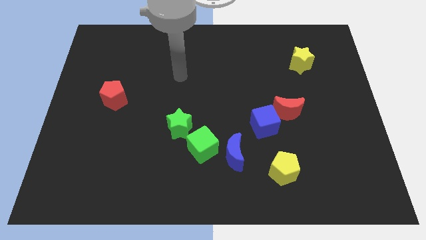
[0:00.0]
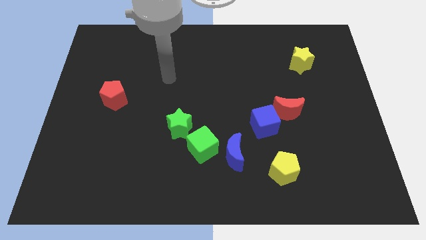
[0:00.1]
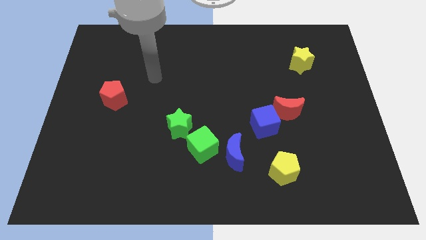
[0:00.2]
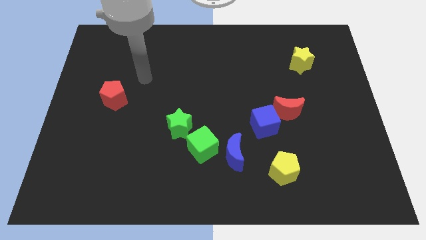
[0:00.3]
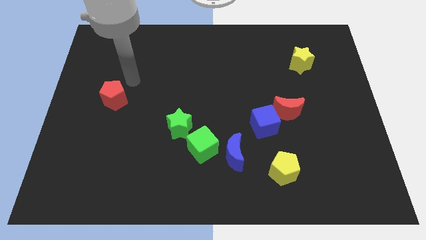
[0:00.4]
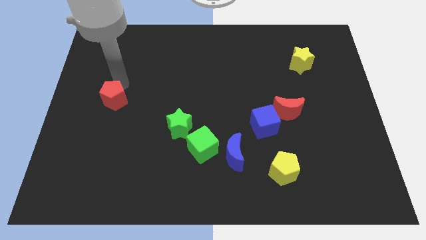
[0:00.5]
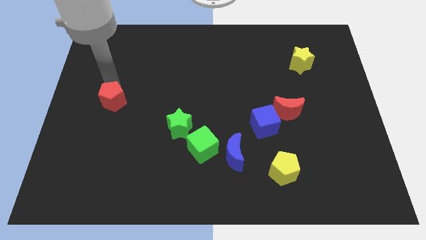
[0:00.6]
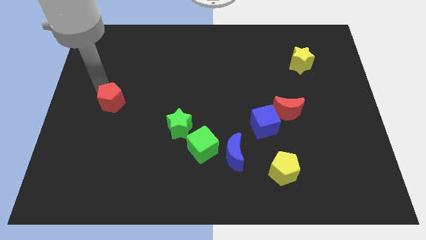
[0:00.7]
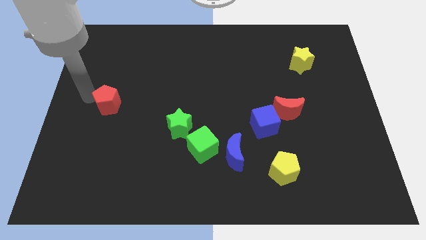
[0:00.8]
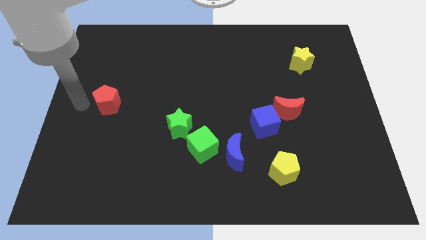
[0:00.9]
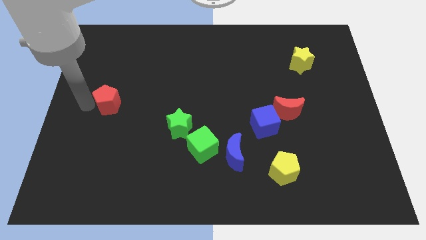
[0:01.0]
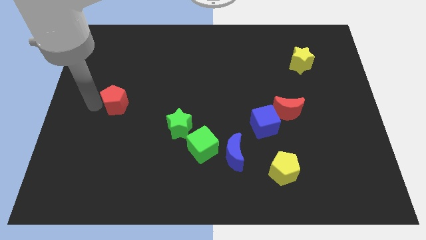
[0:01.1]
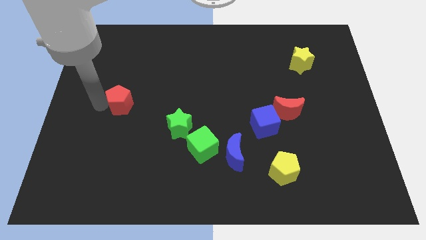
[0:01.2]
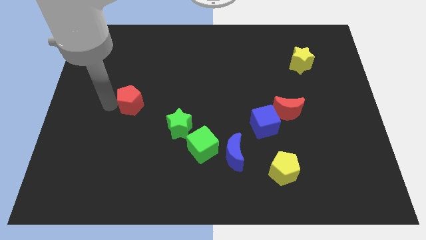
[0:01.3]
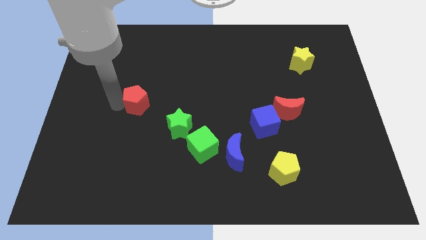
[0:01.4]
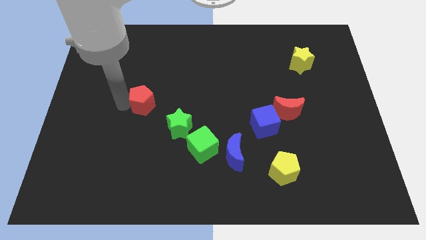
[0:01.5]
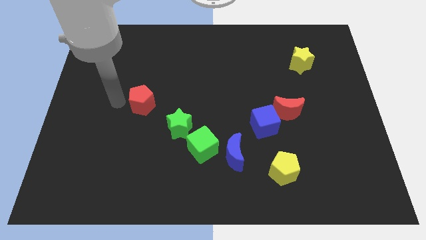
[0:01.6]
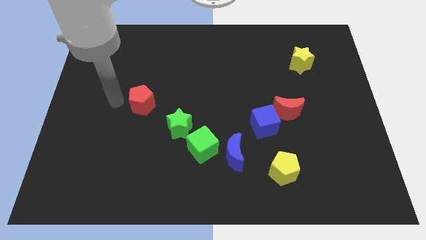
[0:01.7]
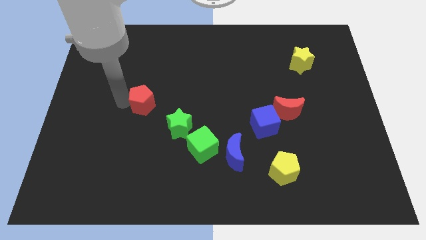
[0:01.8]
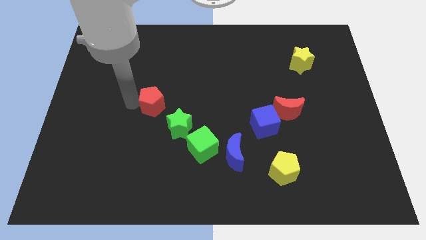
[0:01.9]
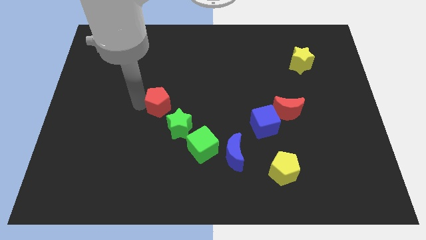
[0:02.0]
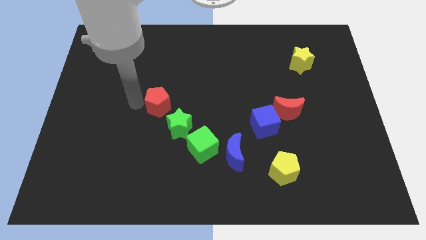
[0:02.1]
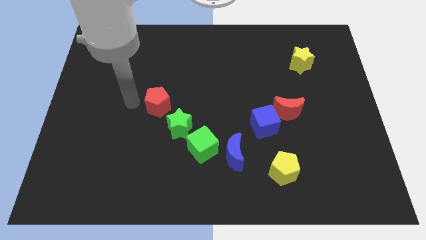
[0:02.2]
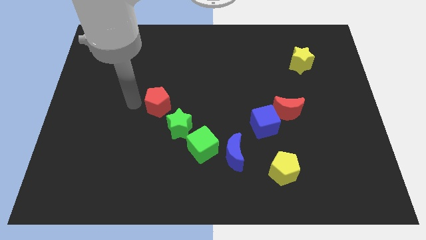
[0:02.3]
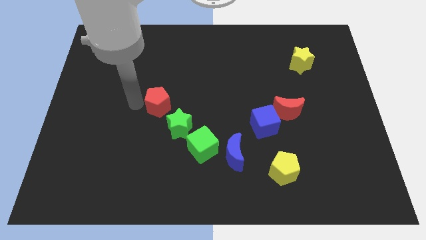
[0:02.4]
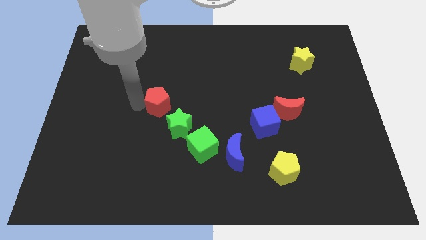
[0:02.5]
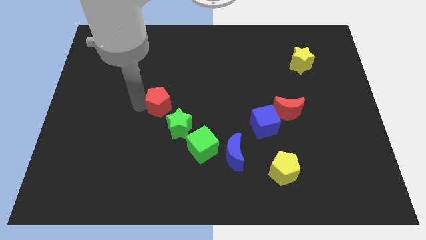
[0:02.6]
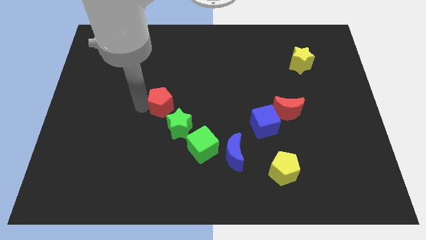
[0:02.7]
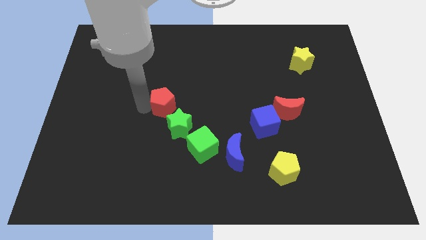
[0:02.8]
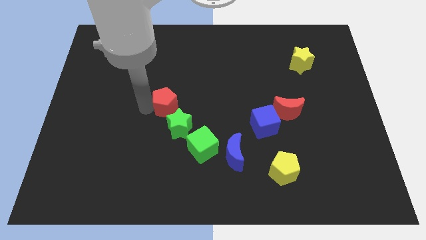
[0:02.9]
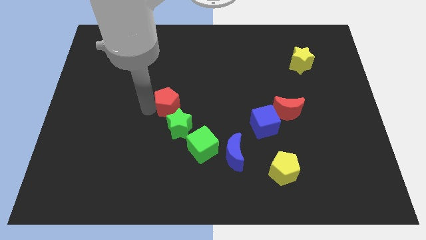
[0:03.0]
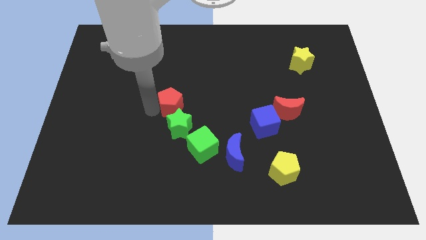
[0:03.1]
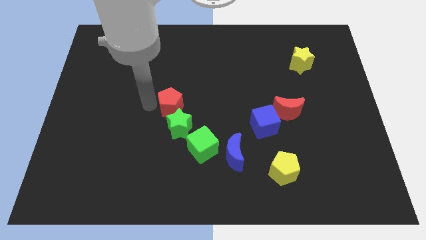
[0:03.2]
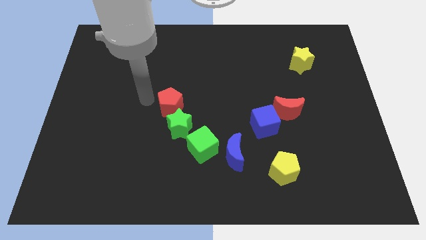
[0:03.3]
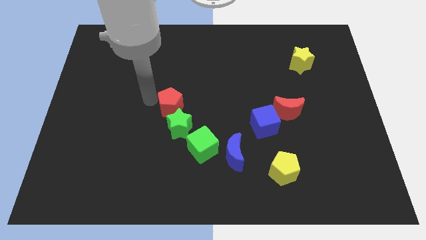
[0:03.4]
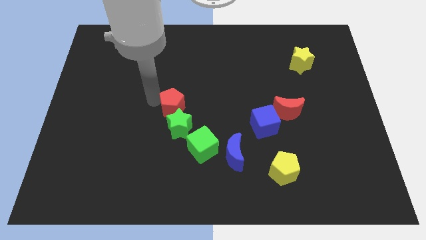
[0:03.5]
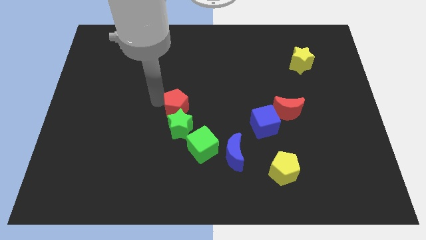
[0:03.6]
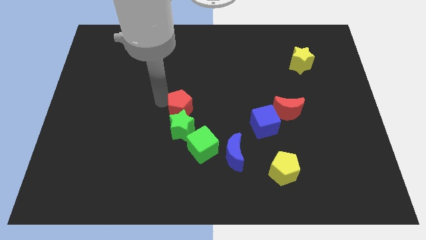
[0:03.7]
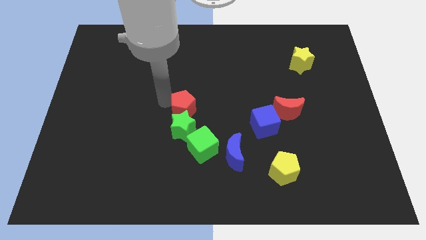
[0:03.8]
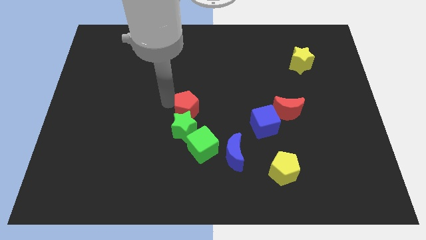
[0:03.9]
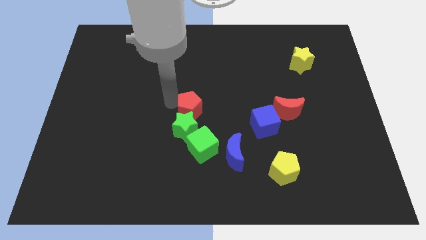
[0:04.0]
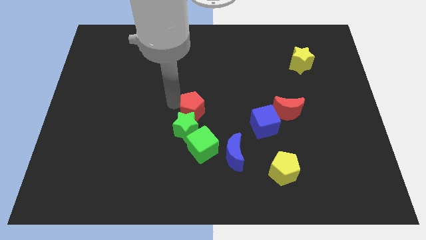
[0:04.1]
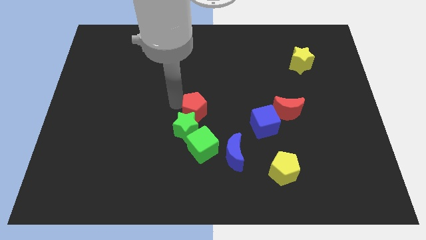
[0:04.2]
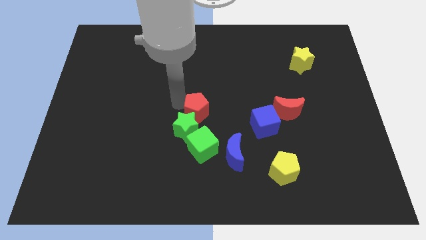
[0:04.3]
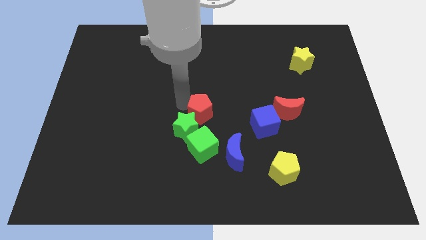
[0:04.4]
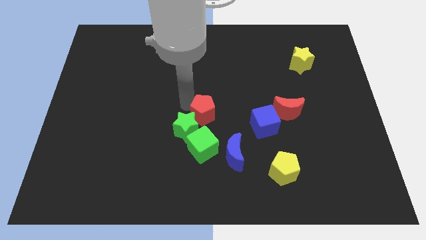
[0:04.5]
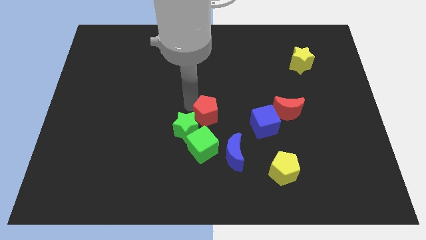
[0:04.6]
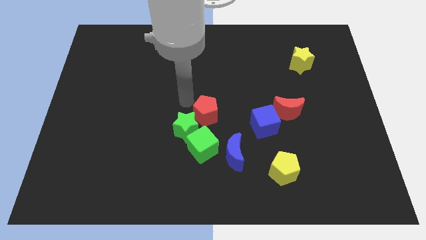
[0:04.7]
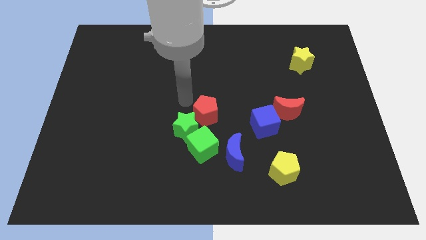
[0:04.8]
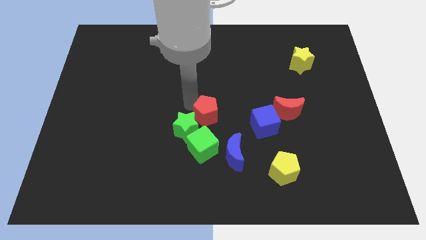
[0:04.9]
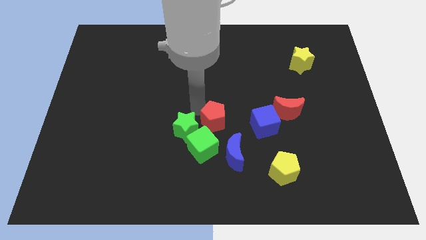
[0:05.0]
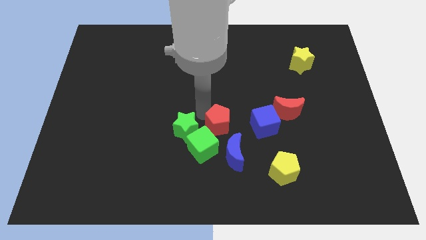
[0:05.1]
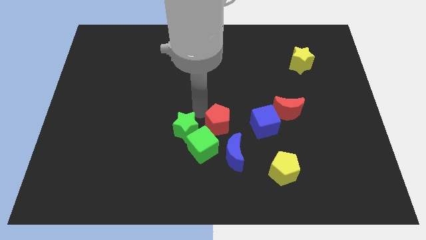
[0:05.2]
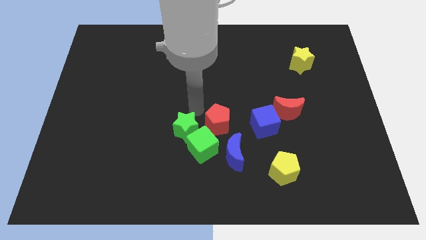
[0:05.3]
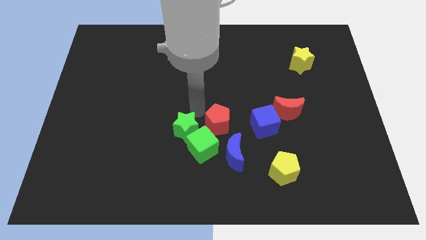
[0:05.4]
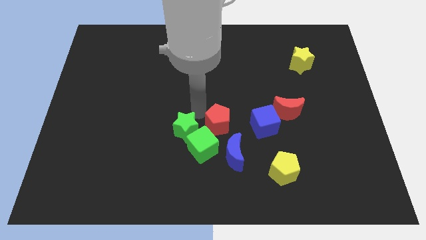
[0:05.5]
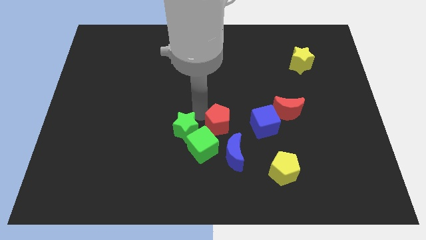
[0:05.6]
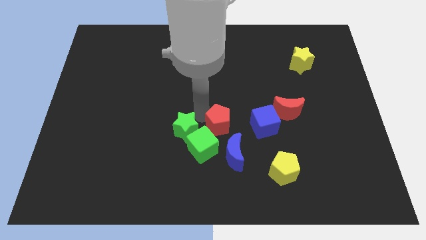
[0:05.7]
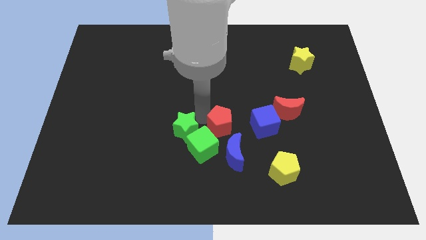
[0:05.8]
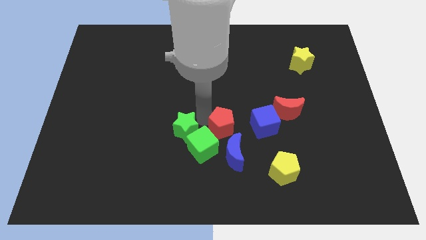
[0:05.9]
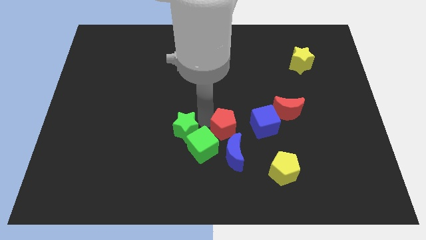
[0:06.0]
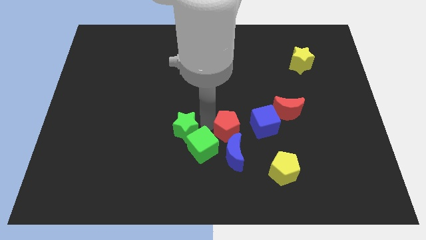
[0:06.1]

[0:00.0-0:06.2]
put the red pentagon to the right of the green cube

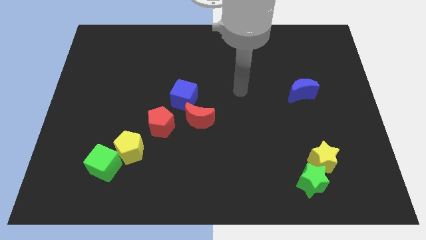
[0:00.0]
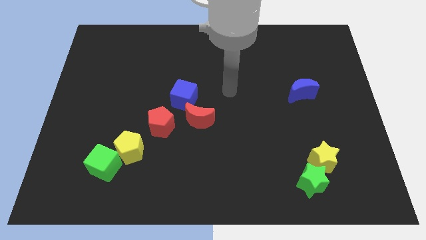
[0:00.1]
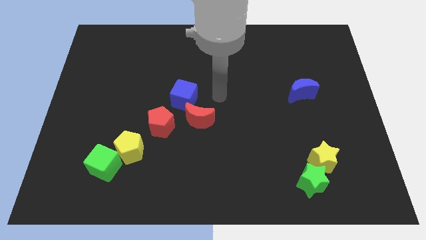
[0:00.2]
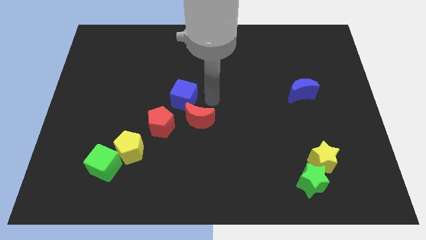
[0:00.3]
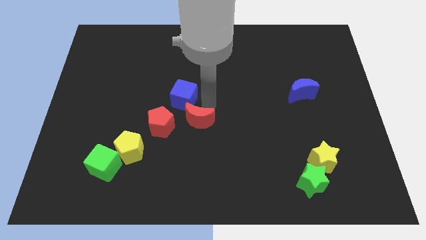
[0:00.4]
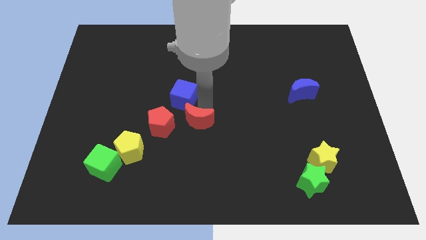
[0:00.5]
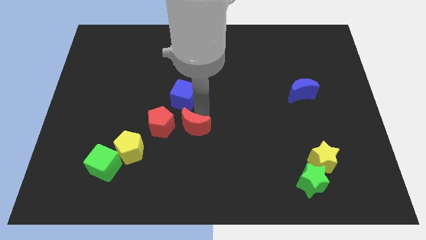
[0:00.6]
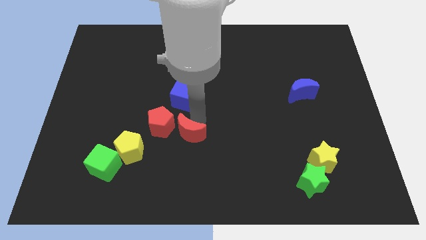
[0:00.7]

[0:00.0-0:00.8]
move the red moon diagonally down and to the right of the red pentagon
